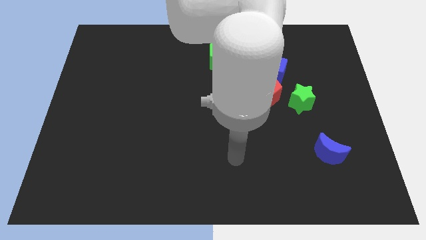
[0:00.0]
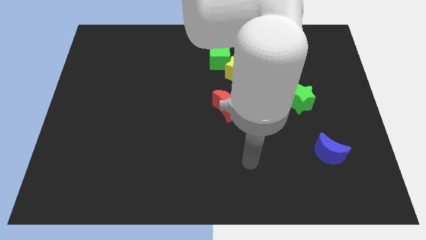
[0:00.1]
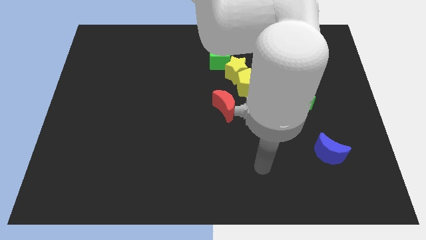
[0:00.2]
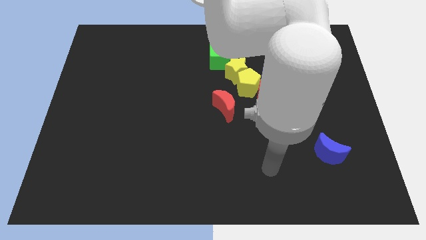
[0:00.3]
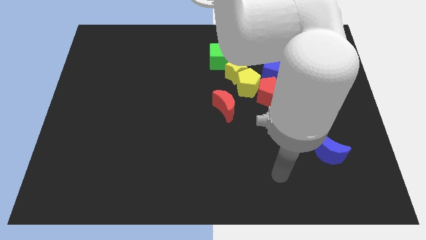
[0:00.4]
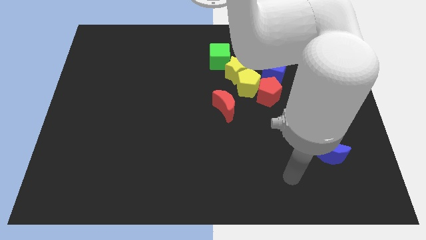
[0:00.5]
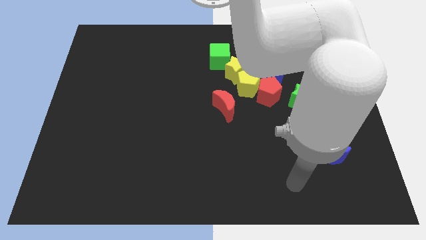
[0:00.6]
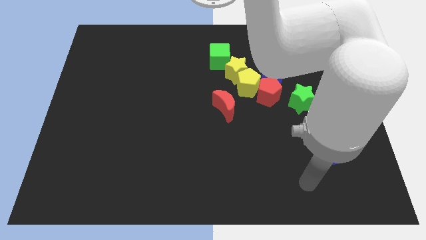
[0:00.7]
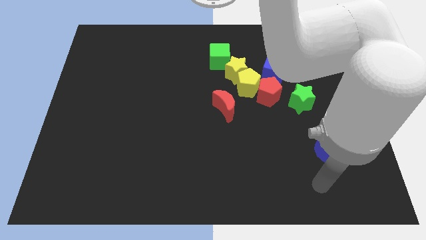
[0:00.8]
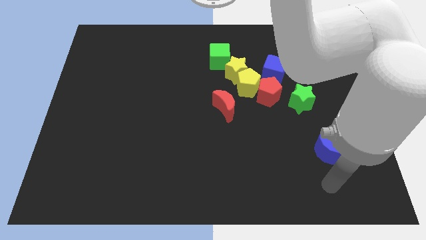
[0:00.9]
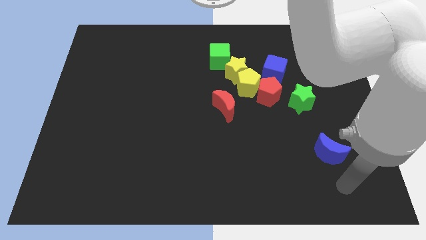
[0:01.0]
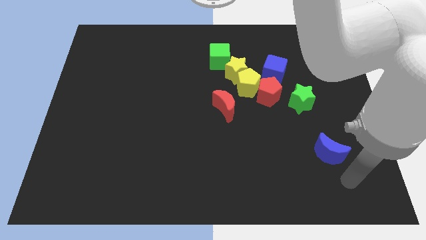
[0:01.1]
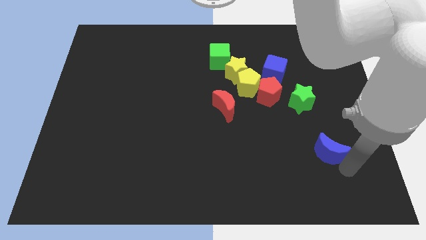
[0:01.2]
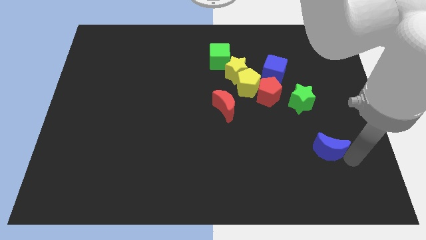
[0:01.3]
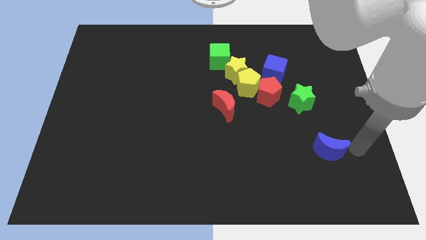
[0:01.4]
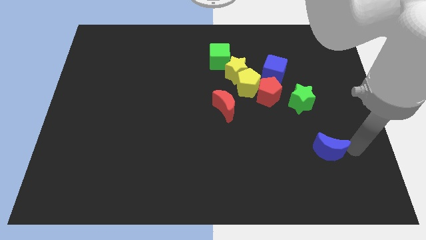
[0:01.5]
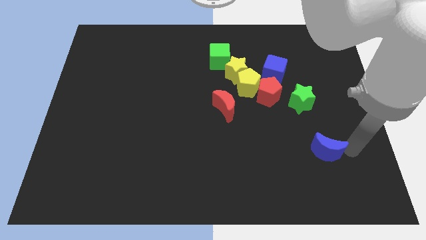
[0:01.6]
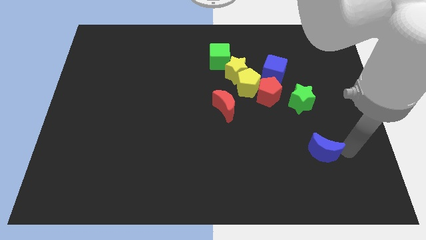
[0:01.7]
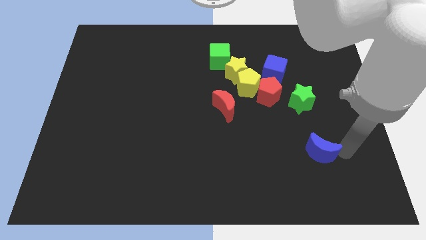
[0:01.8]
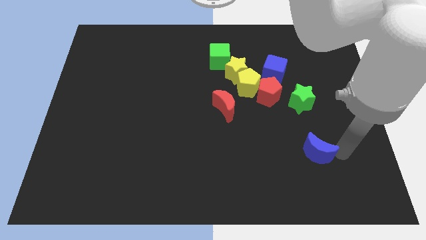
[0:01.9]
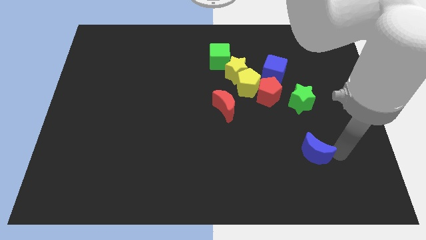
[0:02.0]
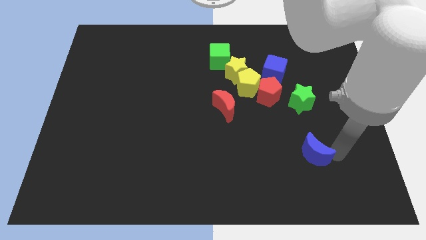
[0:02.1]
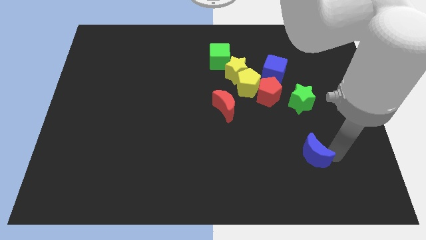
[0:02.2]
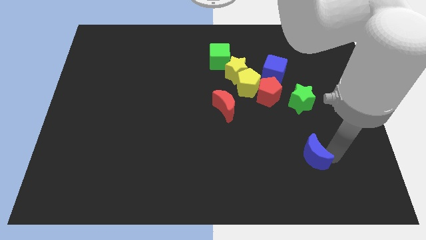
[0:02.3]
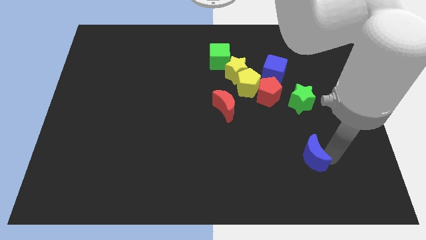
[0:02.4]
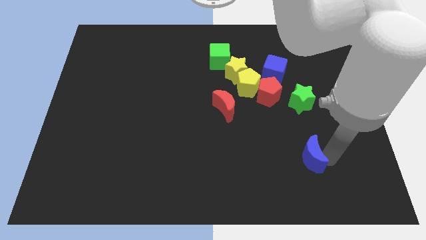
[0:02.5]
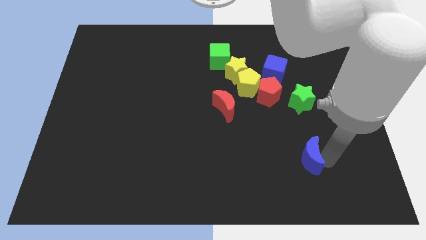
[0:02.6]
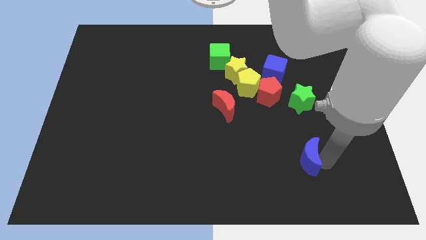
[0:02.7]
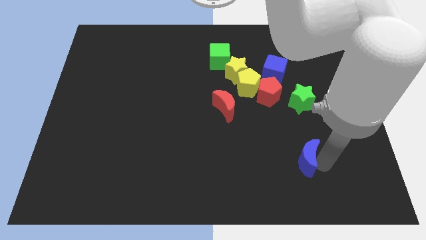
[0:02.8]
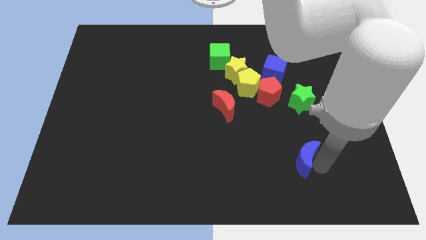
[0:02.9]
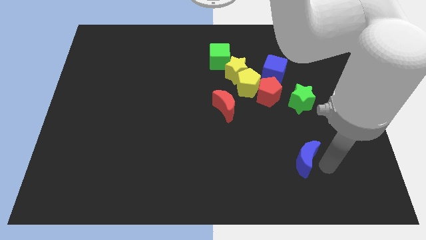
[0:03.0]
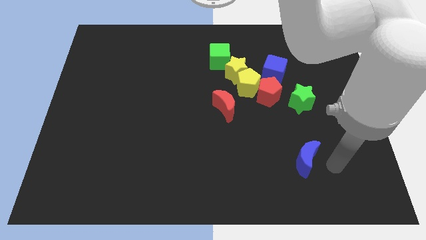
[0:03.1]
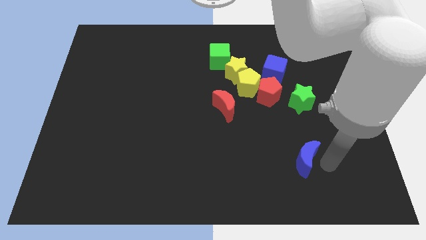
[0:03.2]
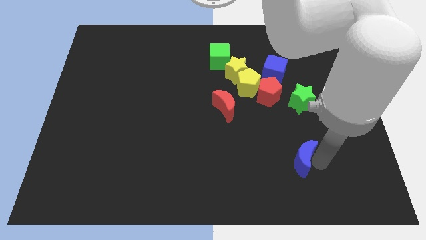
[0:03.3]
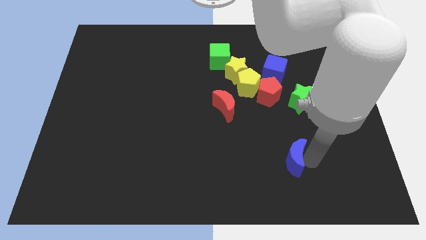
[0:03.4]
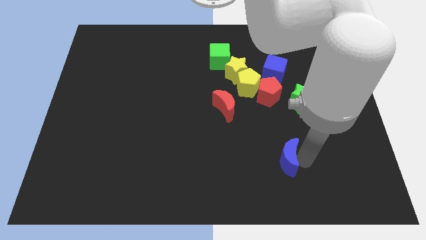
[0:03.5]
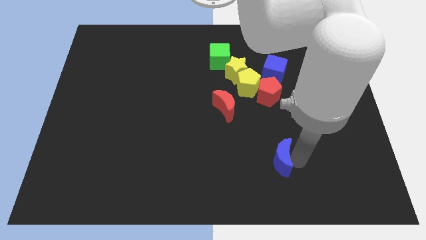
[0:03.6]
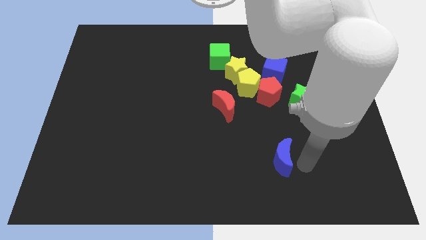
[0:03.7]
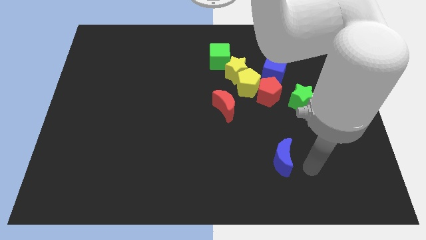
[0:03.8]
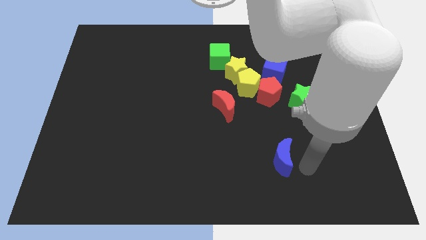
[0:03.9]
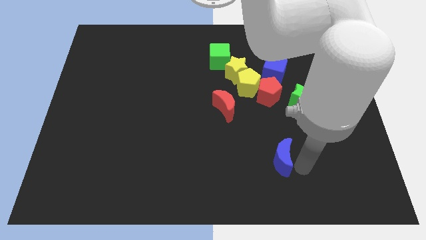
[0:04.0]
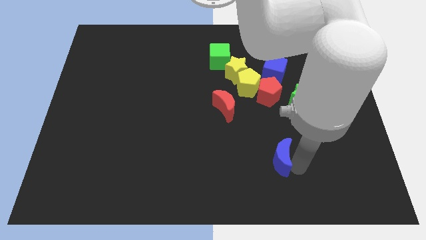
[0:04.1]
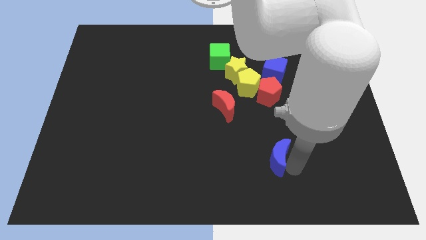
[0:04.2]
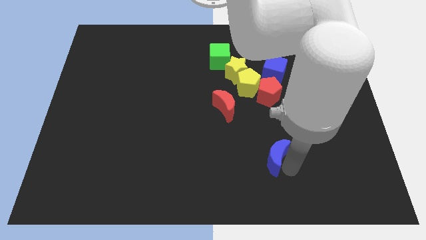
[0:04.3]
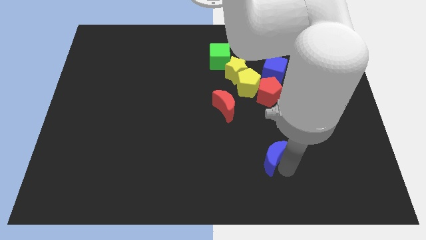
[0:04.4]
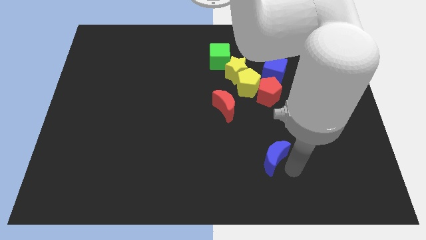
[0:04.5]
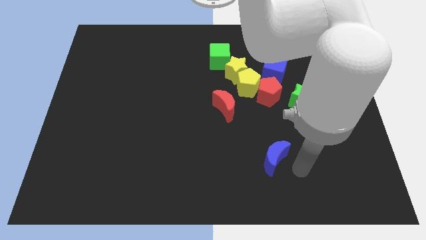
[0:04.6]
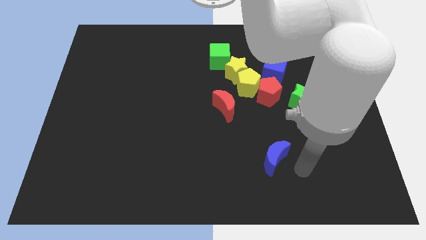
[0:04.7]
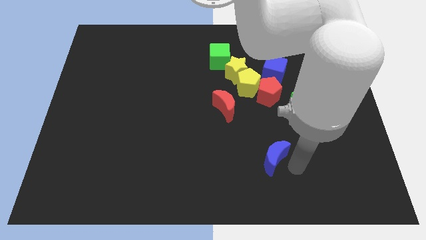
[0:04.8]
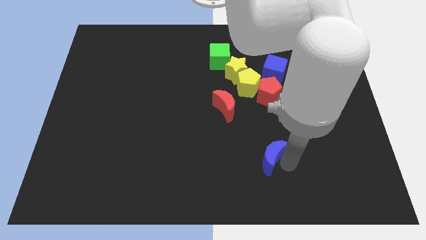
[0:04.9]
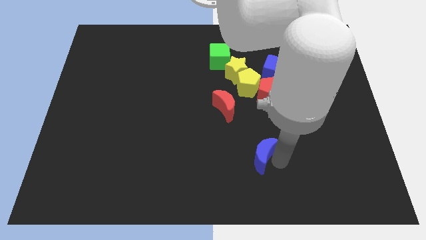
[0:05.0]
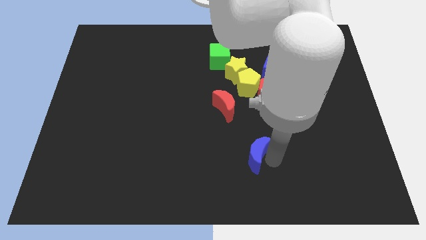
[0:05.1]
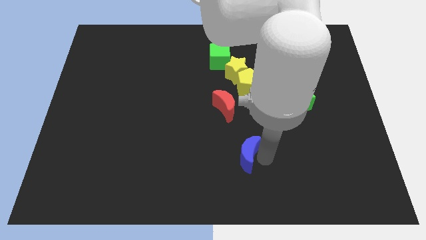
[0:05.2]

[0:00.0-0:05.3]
push the blue moon to the bottom of the red moon

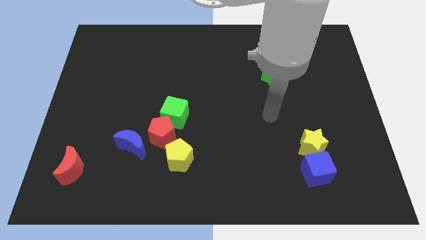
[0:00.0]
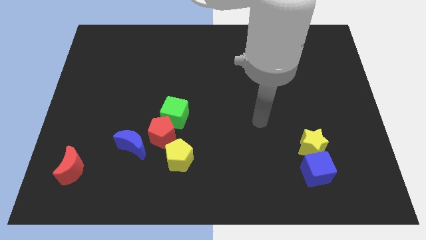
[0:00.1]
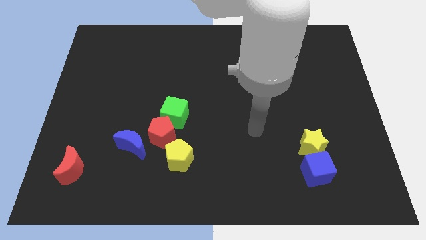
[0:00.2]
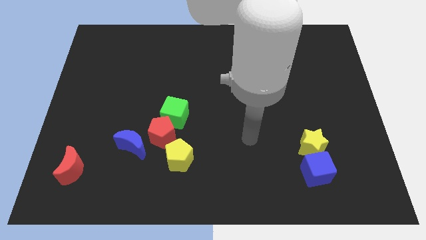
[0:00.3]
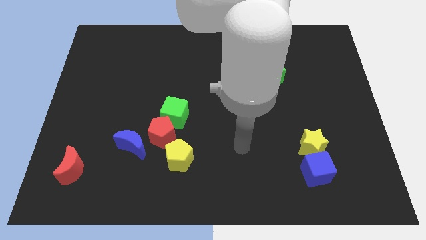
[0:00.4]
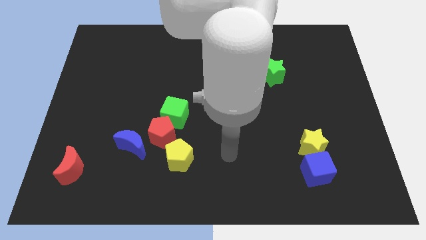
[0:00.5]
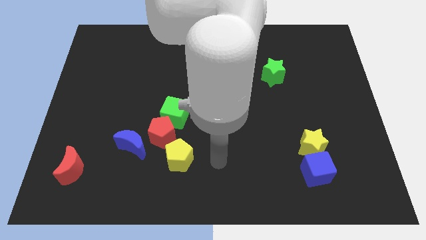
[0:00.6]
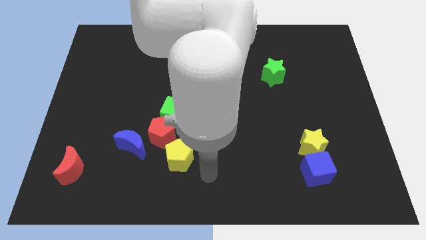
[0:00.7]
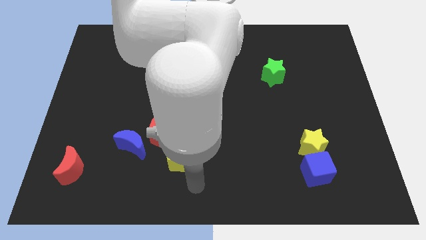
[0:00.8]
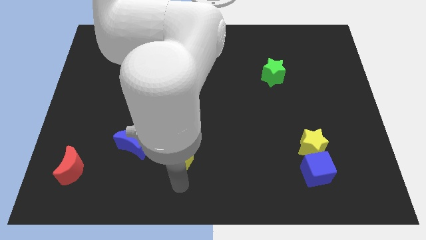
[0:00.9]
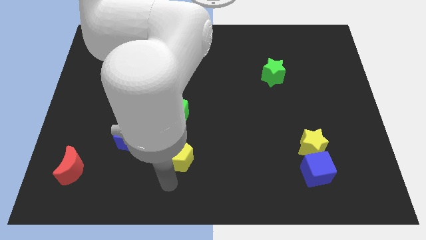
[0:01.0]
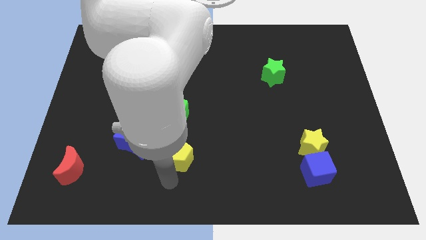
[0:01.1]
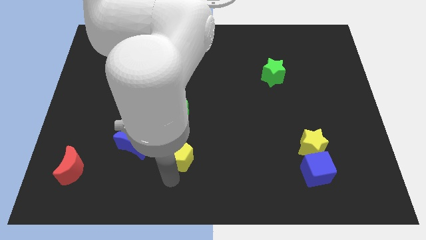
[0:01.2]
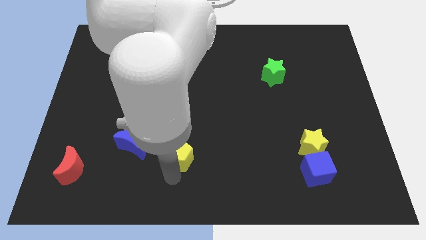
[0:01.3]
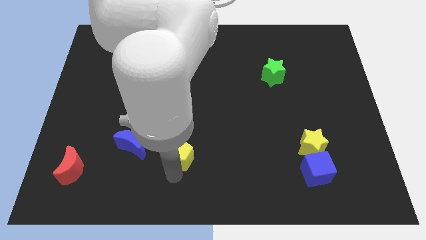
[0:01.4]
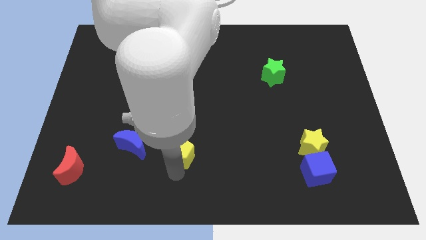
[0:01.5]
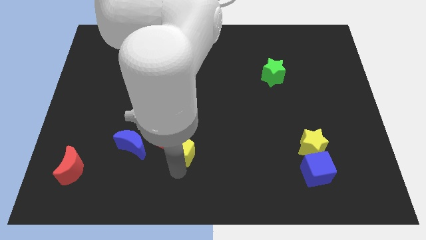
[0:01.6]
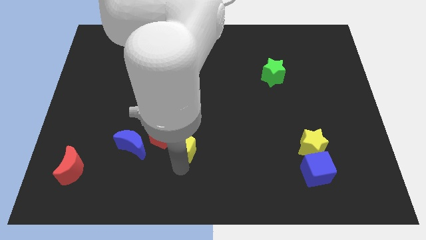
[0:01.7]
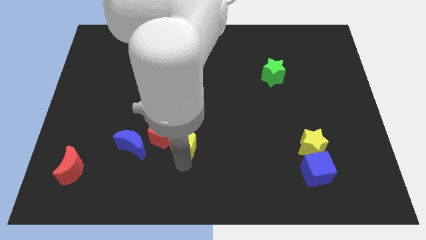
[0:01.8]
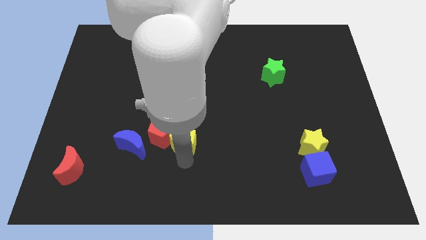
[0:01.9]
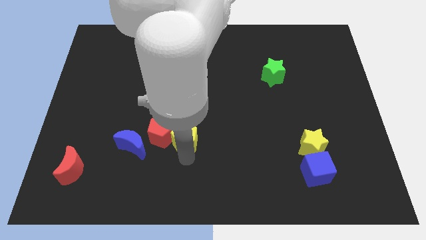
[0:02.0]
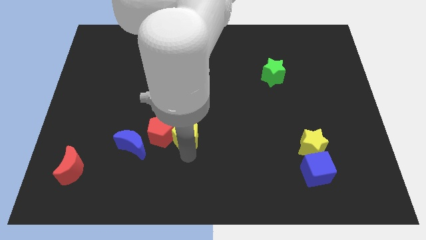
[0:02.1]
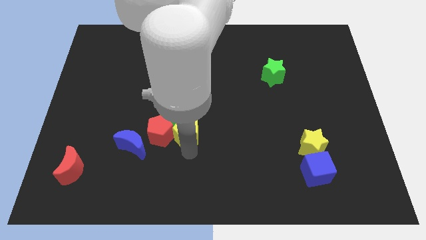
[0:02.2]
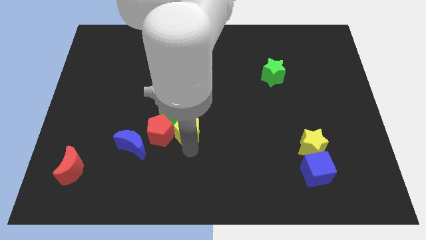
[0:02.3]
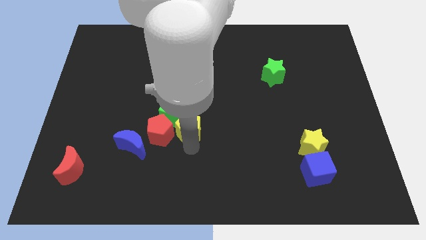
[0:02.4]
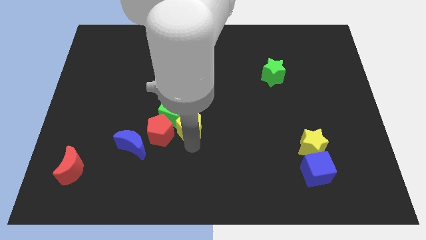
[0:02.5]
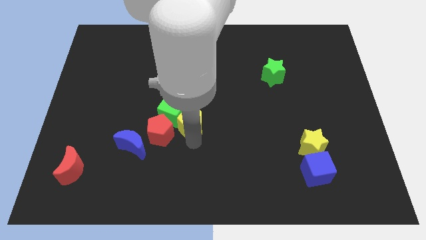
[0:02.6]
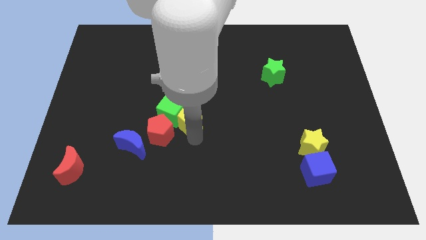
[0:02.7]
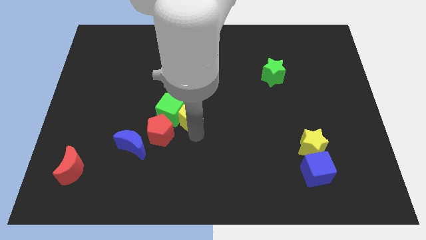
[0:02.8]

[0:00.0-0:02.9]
move the yellow pentagon to the top right of the green cube
